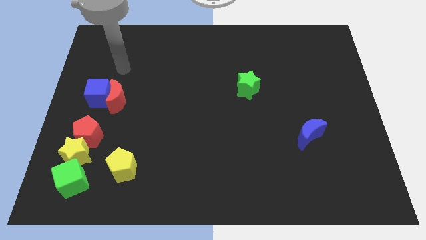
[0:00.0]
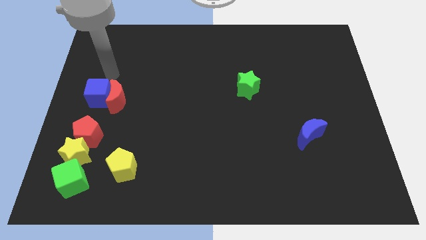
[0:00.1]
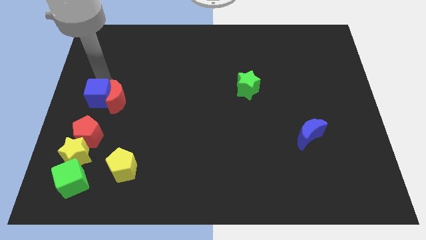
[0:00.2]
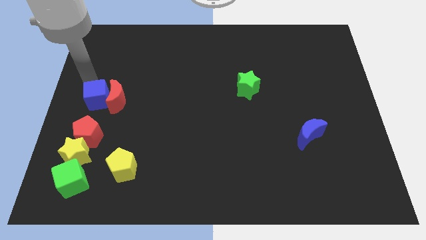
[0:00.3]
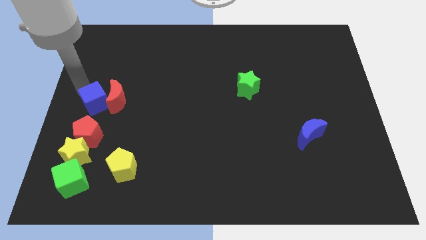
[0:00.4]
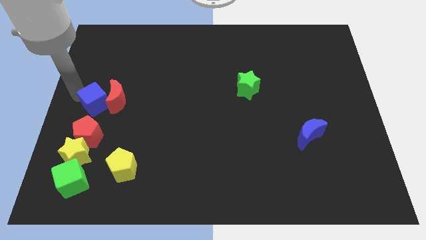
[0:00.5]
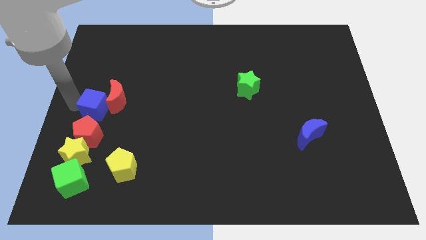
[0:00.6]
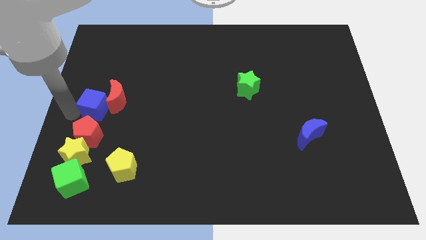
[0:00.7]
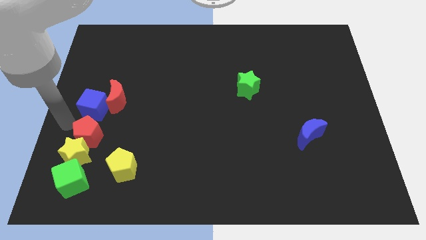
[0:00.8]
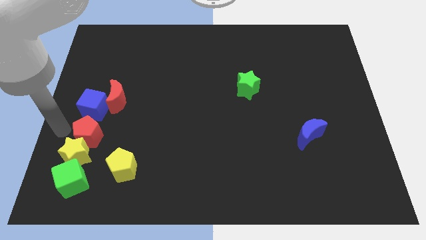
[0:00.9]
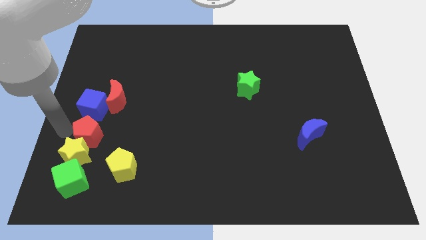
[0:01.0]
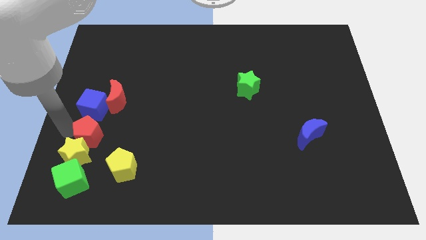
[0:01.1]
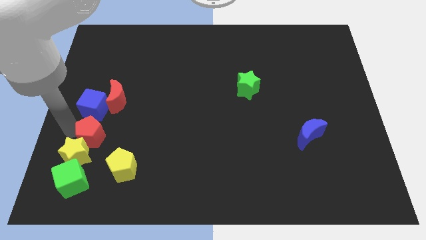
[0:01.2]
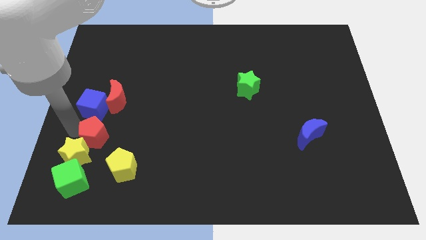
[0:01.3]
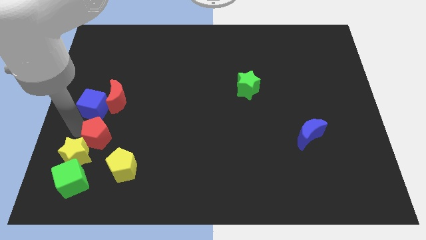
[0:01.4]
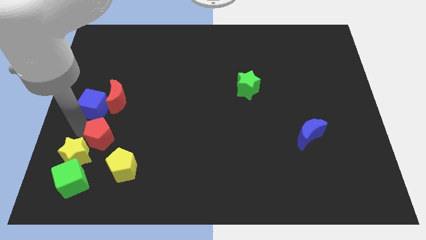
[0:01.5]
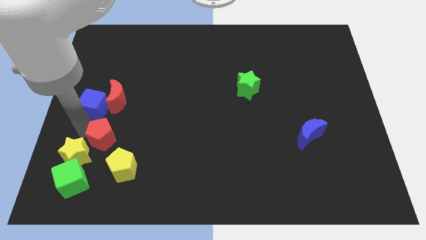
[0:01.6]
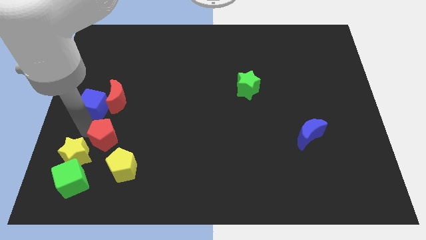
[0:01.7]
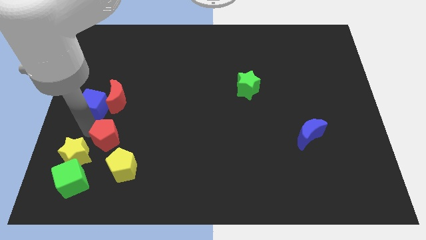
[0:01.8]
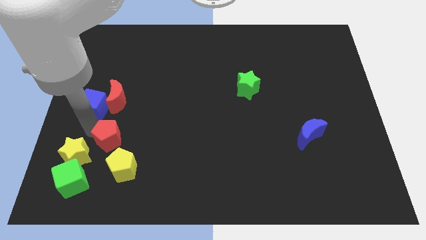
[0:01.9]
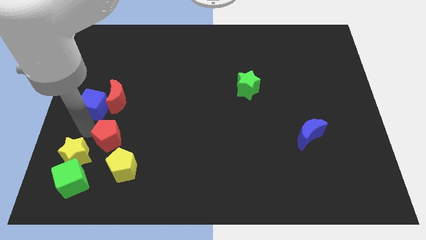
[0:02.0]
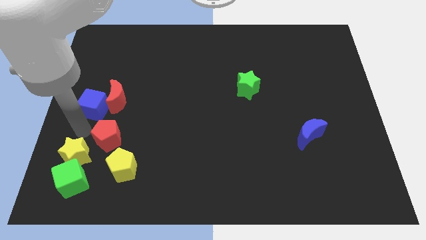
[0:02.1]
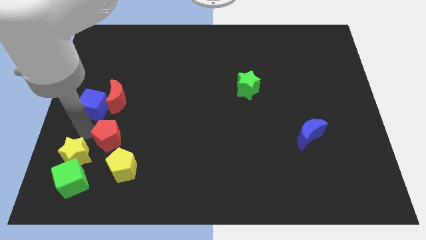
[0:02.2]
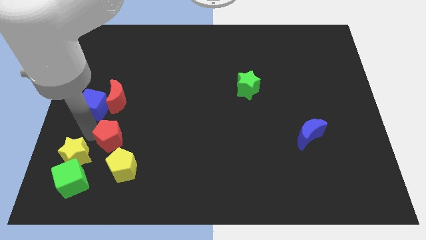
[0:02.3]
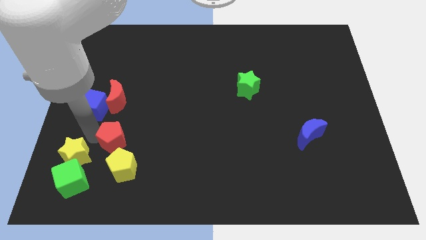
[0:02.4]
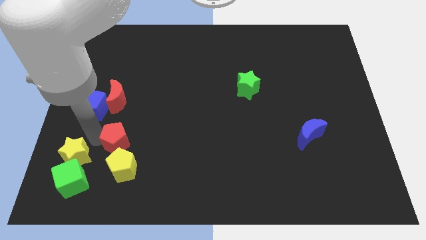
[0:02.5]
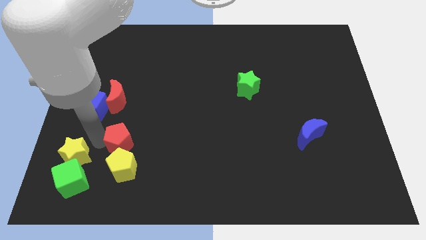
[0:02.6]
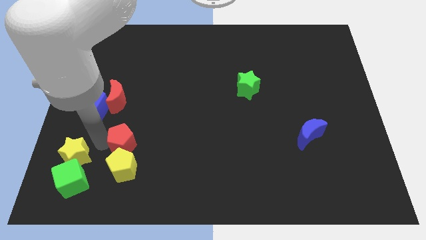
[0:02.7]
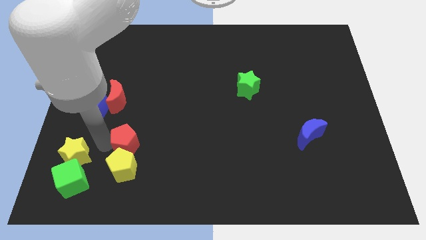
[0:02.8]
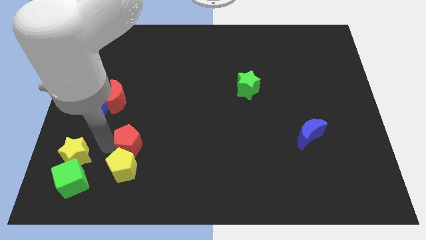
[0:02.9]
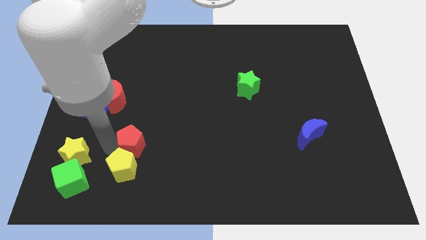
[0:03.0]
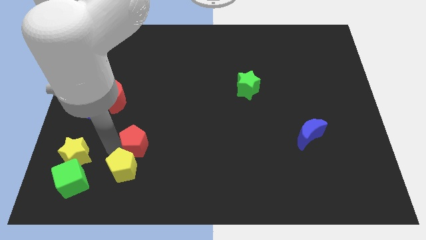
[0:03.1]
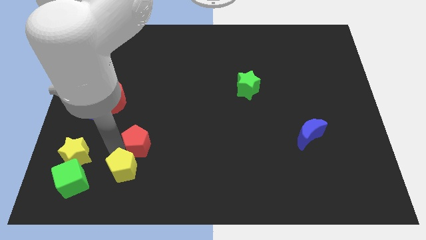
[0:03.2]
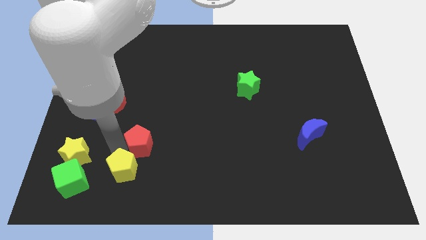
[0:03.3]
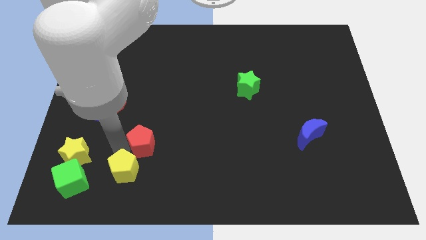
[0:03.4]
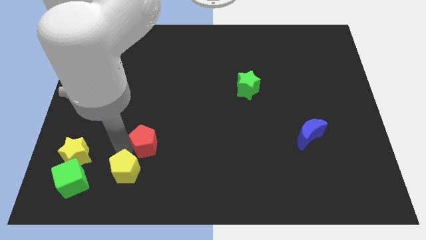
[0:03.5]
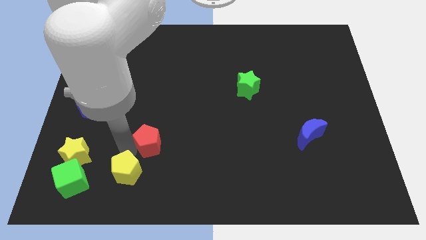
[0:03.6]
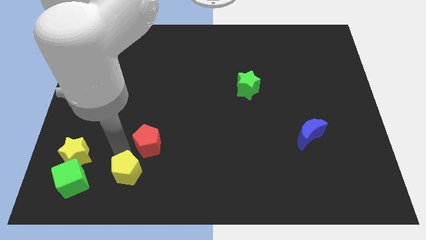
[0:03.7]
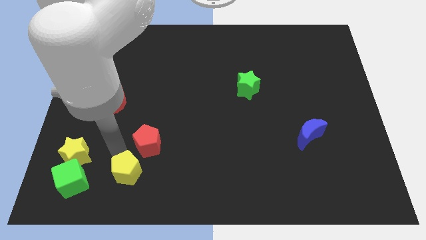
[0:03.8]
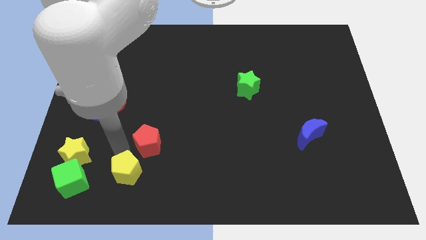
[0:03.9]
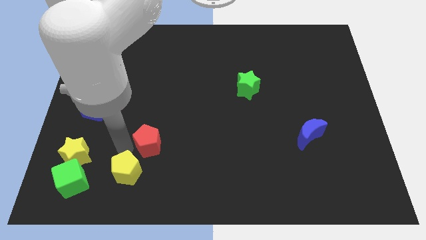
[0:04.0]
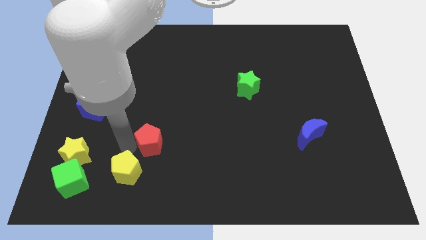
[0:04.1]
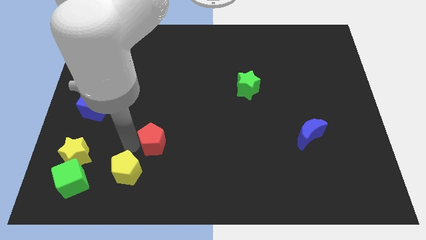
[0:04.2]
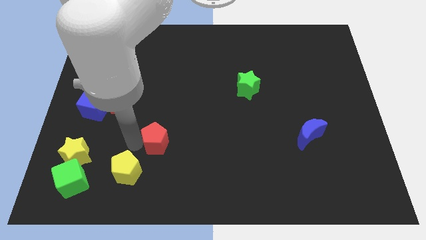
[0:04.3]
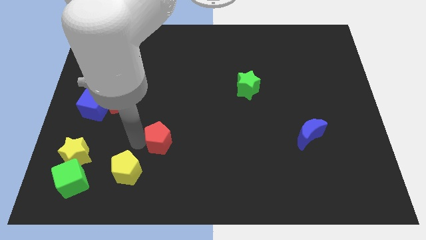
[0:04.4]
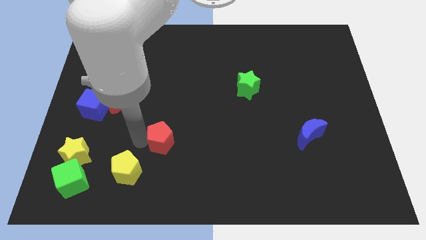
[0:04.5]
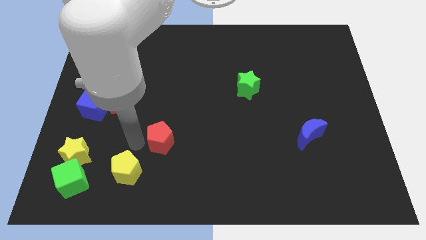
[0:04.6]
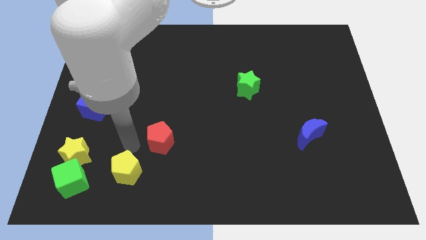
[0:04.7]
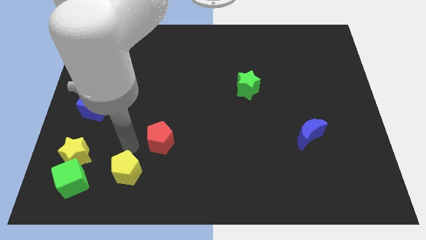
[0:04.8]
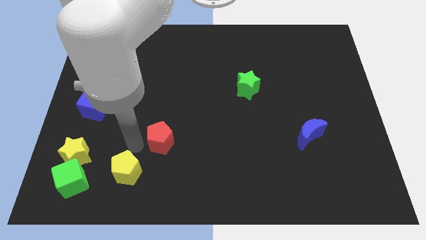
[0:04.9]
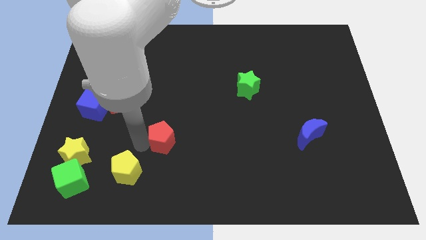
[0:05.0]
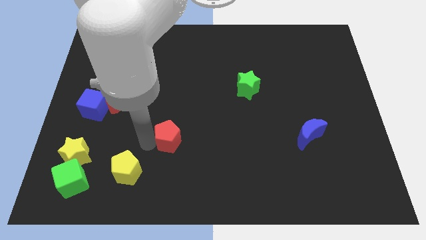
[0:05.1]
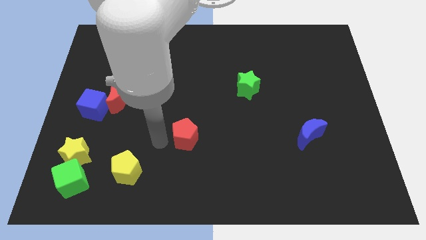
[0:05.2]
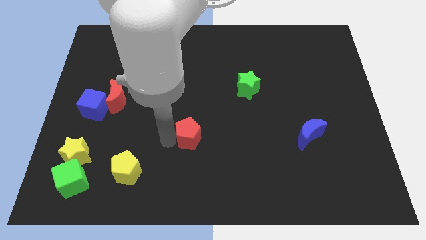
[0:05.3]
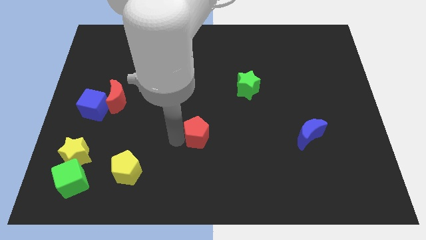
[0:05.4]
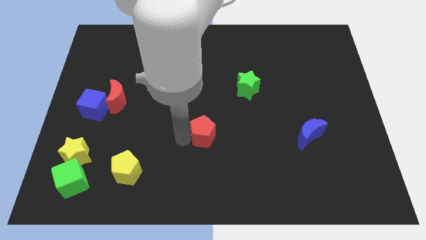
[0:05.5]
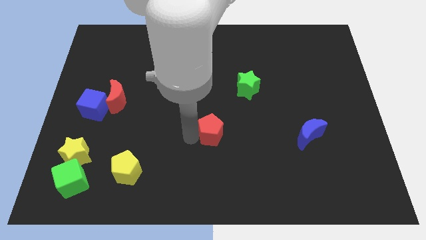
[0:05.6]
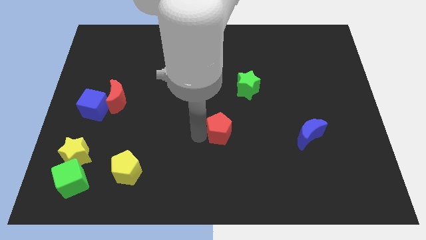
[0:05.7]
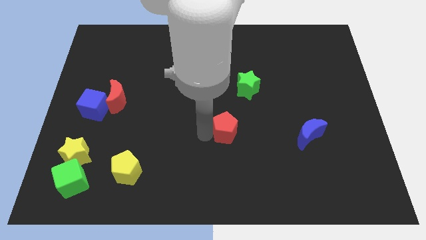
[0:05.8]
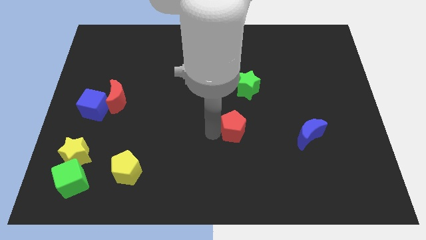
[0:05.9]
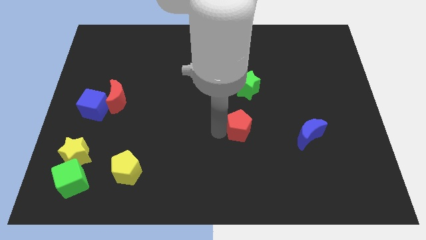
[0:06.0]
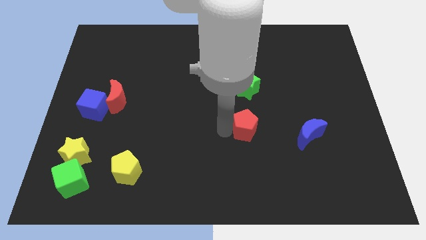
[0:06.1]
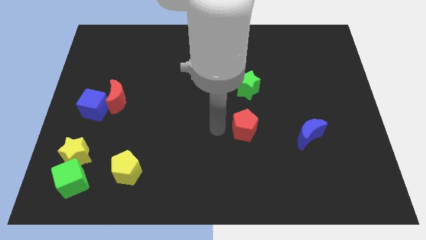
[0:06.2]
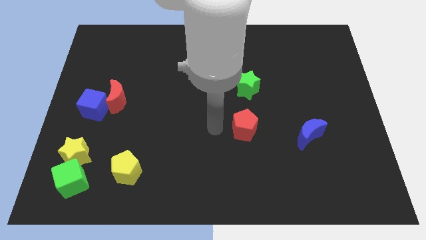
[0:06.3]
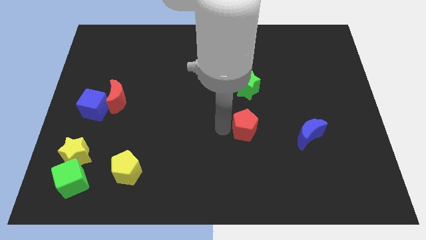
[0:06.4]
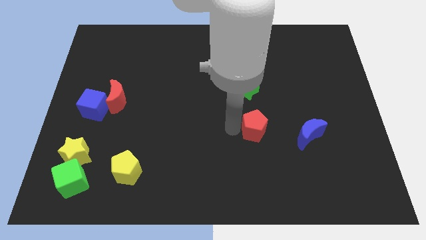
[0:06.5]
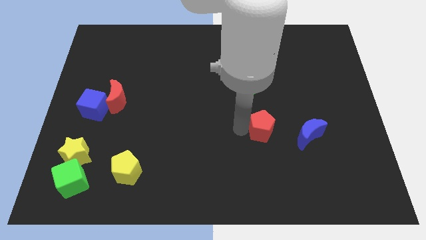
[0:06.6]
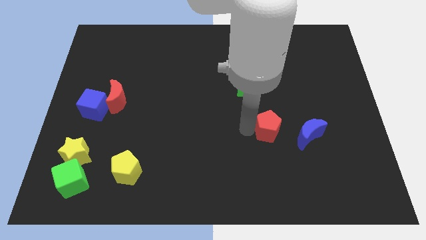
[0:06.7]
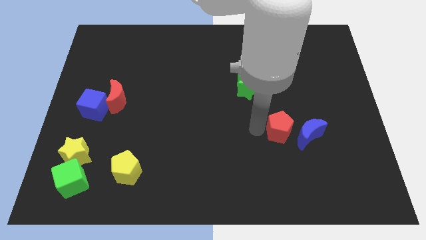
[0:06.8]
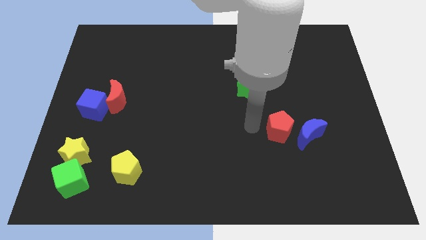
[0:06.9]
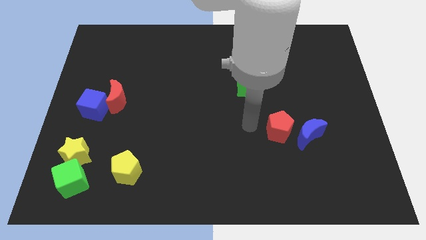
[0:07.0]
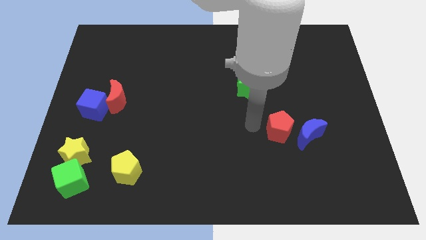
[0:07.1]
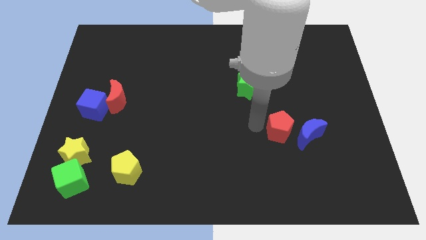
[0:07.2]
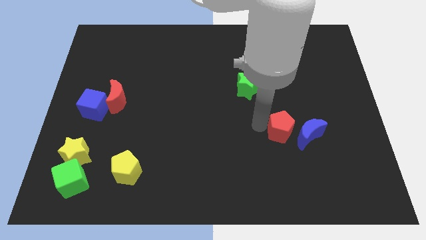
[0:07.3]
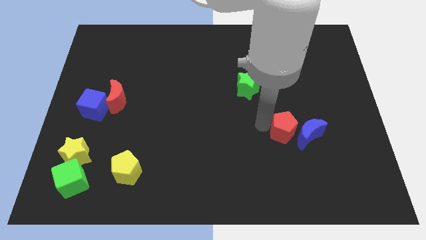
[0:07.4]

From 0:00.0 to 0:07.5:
move the red pentagon to the blue moon

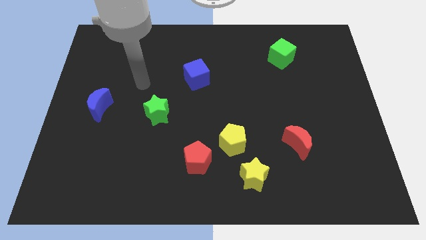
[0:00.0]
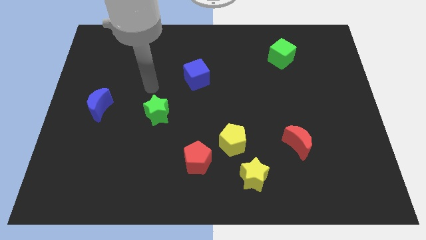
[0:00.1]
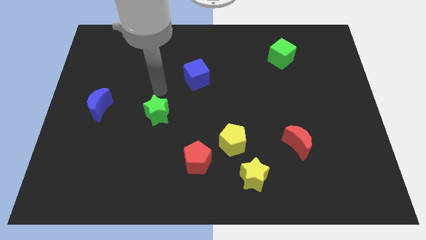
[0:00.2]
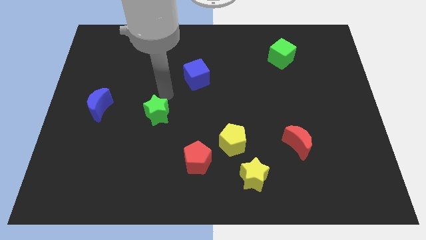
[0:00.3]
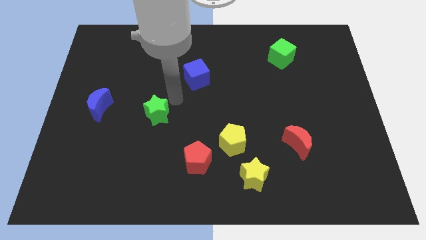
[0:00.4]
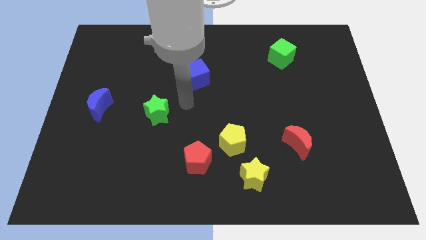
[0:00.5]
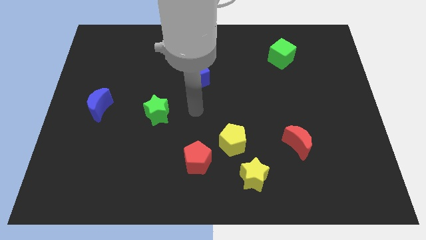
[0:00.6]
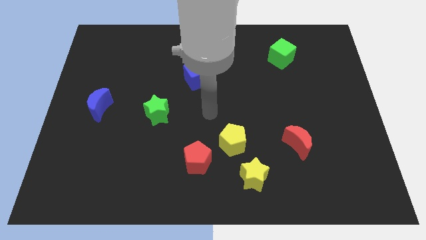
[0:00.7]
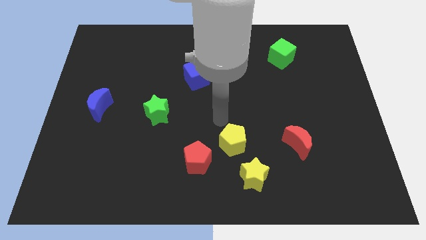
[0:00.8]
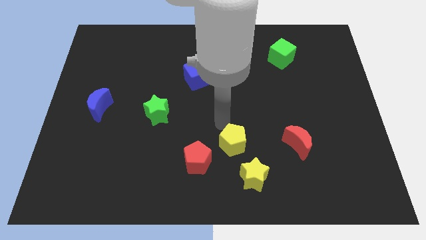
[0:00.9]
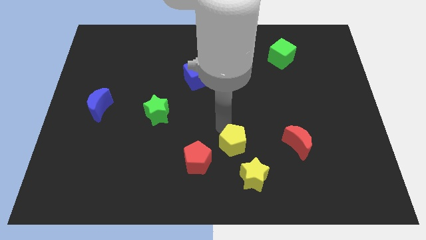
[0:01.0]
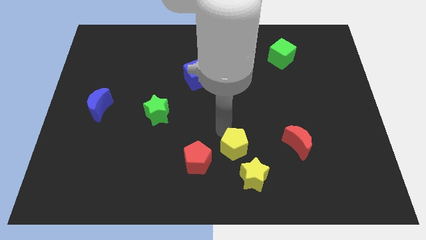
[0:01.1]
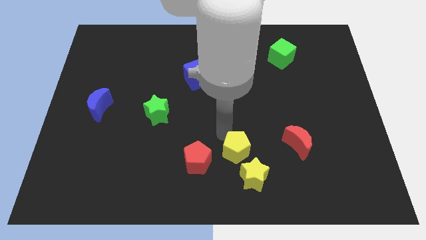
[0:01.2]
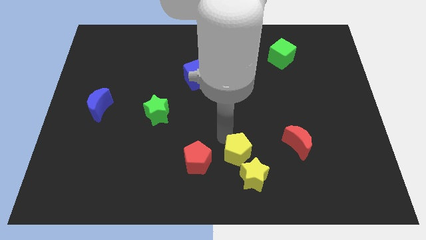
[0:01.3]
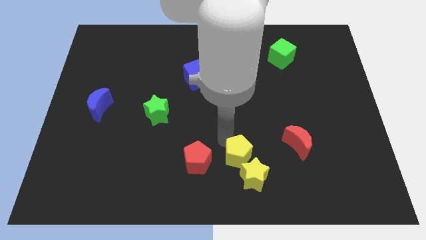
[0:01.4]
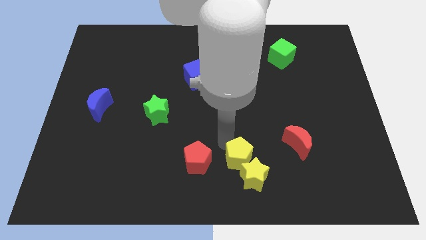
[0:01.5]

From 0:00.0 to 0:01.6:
slide the yellow pentagon next to the yellow star
